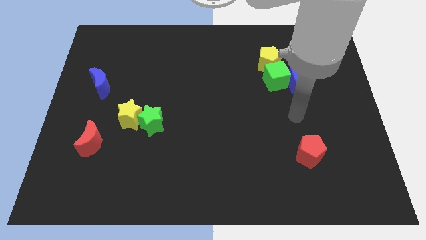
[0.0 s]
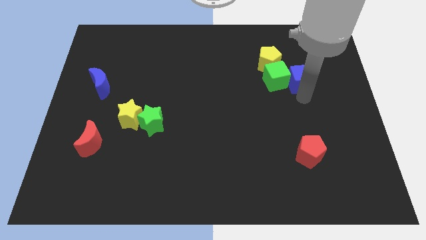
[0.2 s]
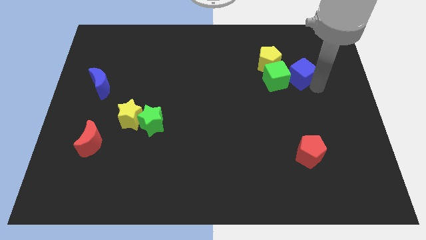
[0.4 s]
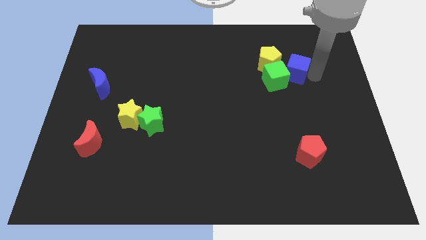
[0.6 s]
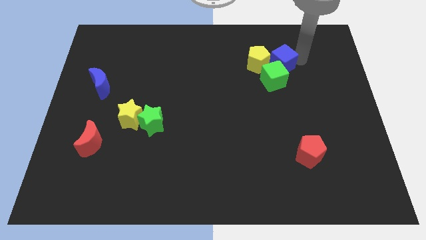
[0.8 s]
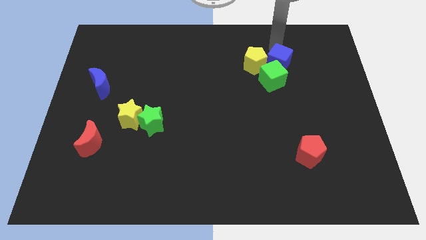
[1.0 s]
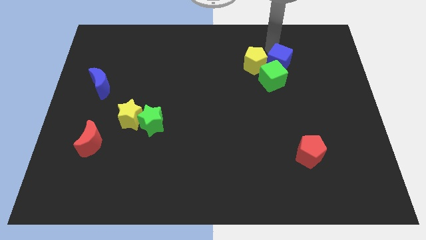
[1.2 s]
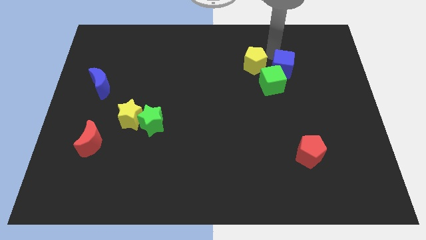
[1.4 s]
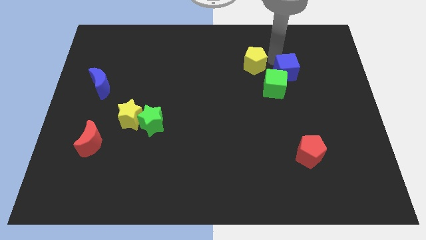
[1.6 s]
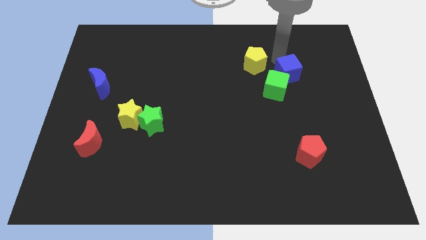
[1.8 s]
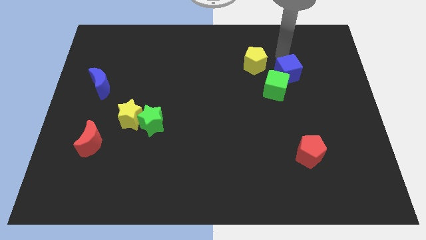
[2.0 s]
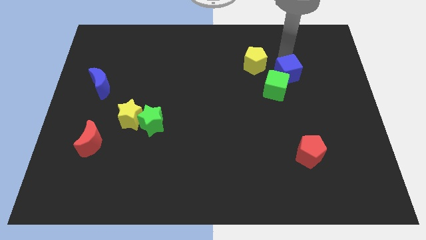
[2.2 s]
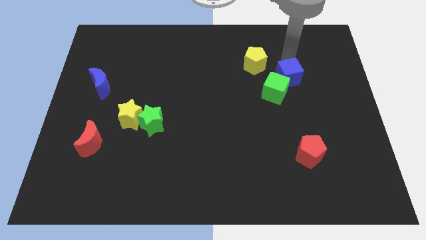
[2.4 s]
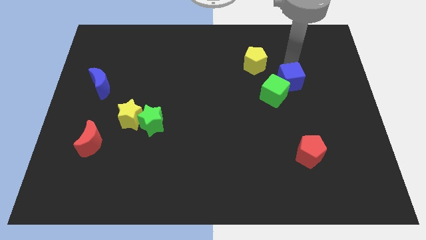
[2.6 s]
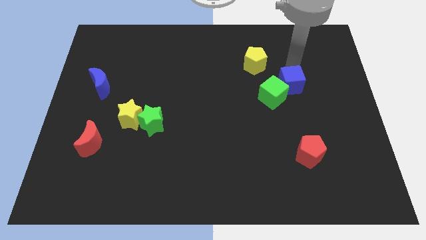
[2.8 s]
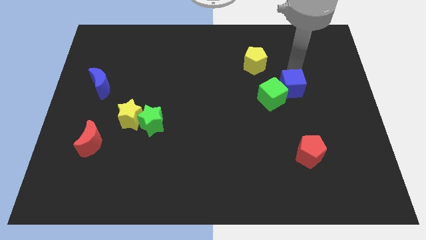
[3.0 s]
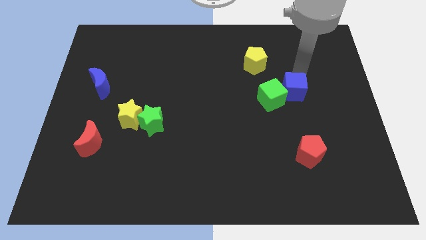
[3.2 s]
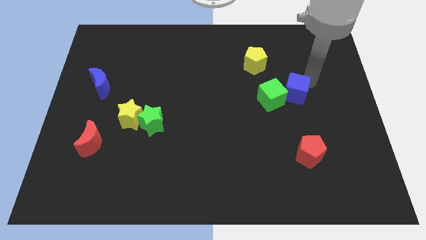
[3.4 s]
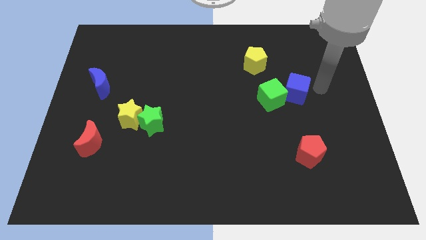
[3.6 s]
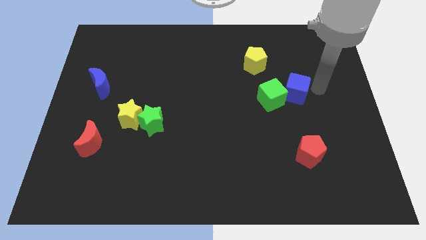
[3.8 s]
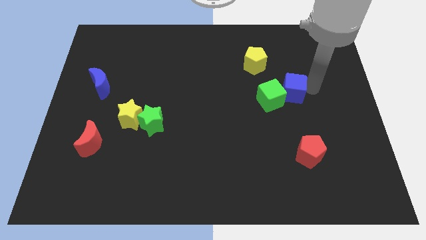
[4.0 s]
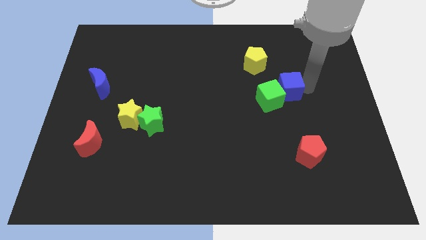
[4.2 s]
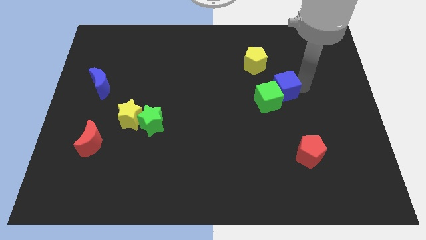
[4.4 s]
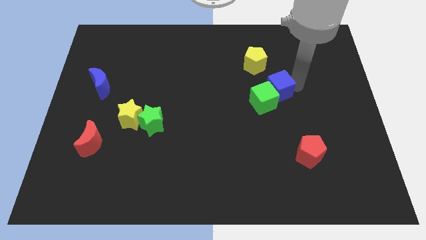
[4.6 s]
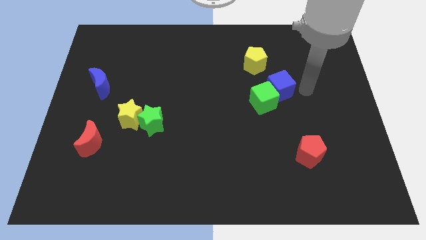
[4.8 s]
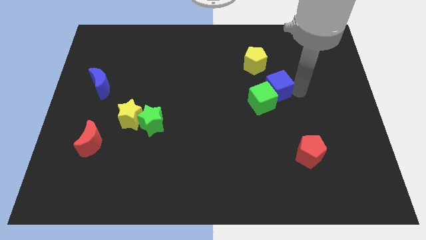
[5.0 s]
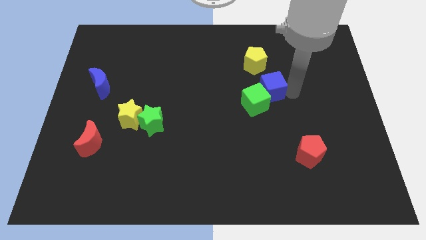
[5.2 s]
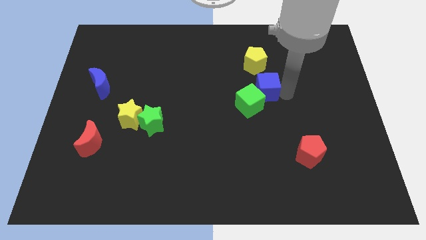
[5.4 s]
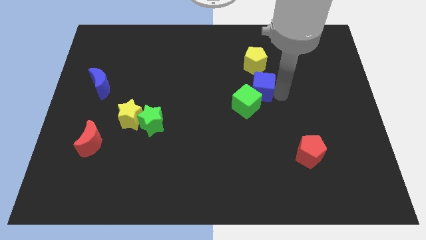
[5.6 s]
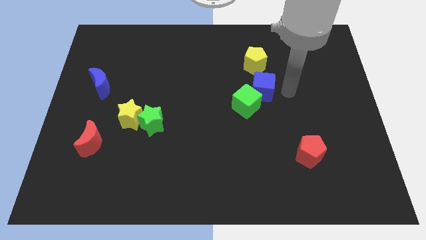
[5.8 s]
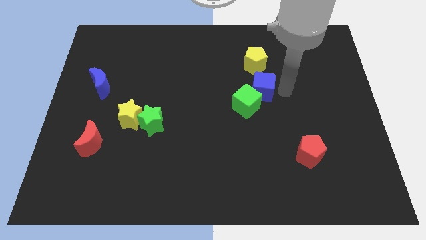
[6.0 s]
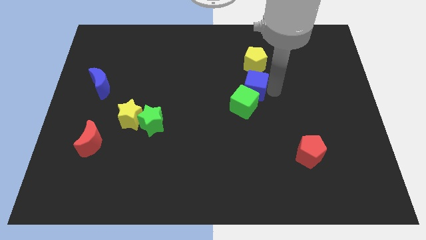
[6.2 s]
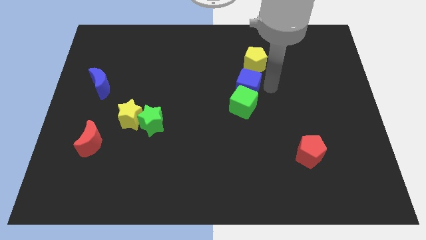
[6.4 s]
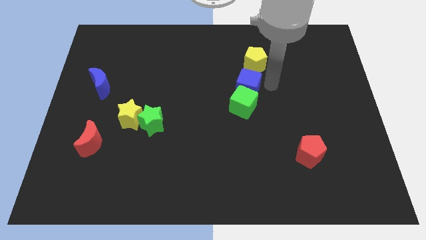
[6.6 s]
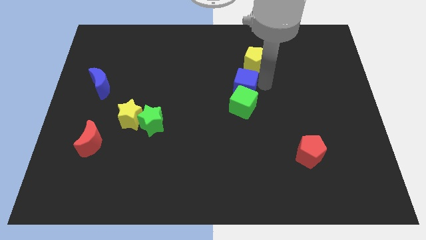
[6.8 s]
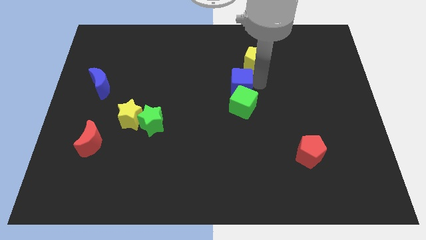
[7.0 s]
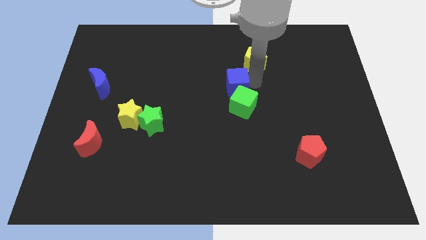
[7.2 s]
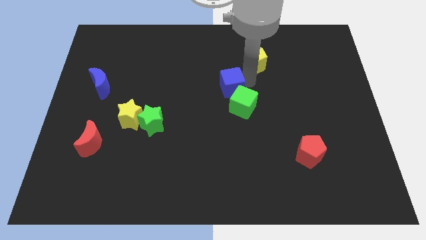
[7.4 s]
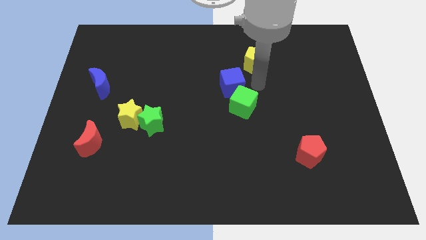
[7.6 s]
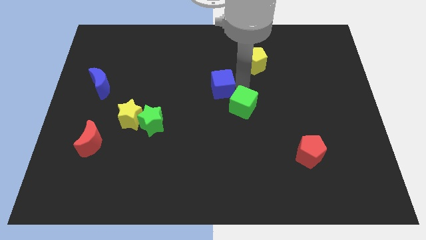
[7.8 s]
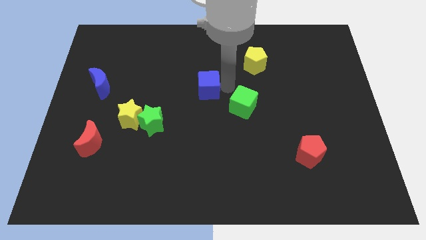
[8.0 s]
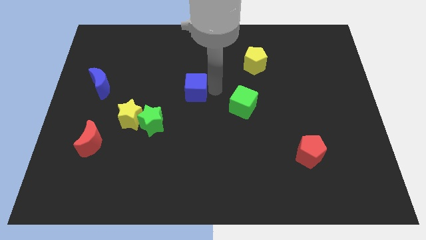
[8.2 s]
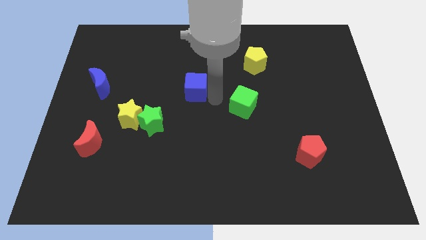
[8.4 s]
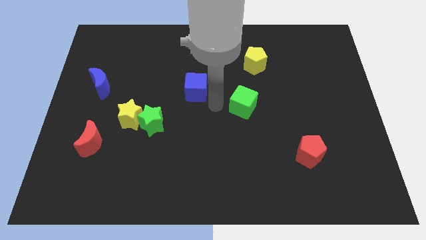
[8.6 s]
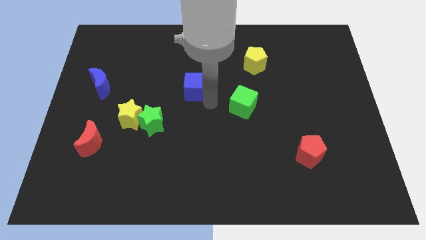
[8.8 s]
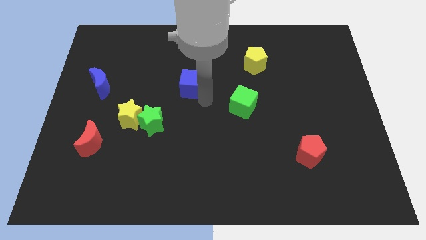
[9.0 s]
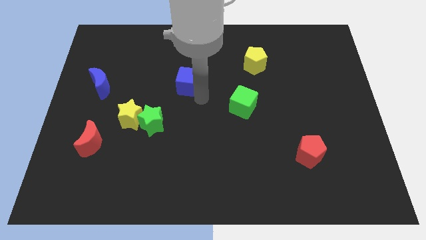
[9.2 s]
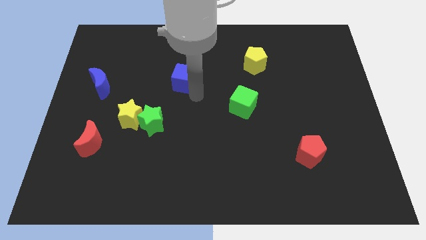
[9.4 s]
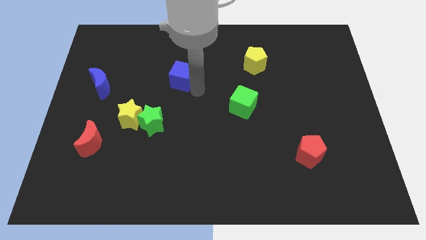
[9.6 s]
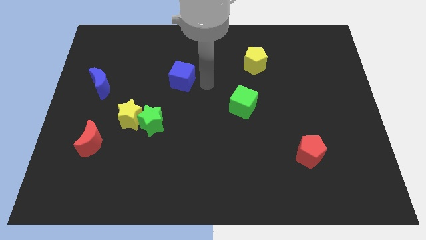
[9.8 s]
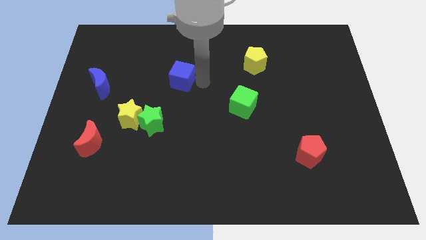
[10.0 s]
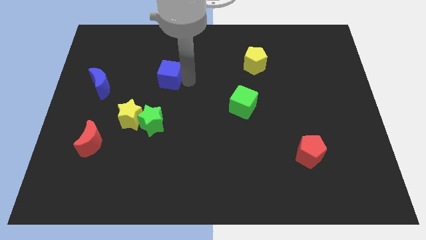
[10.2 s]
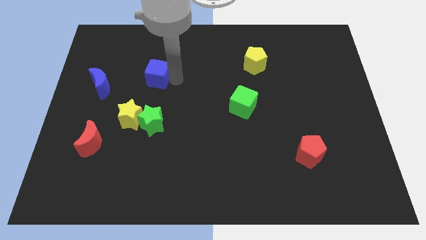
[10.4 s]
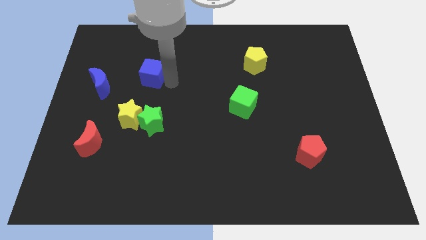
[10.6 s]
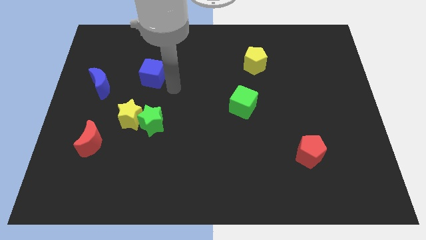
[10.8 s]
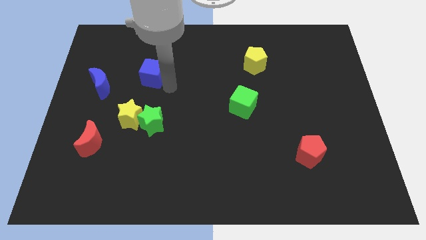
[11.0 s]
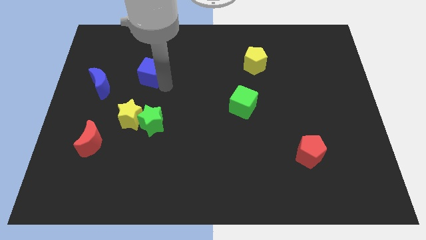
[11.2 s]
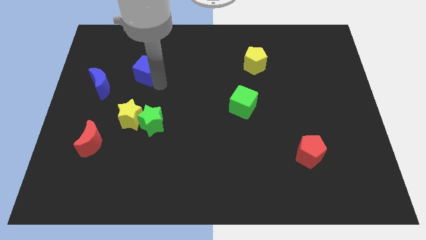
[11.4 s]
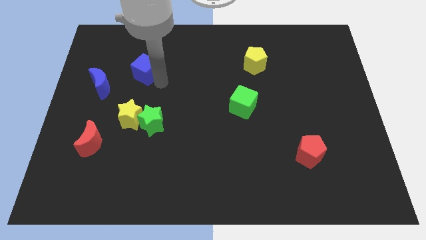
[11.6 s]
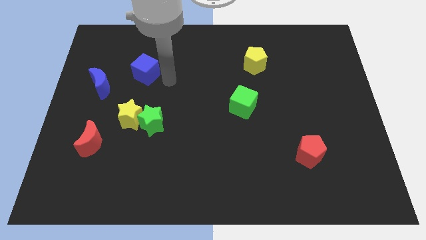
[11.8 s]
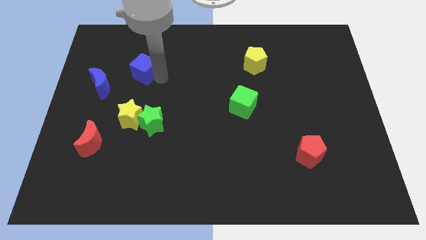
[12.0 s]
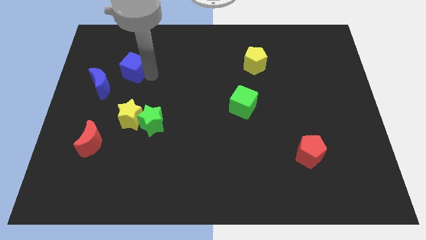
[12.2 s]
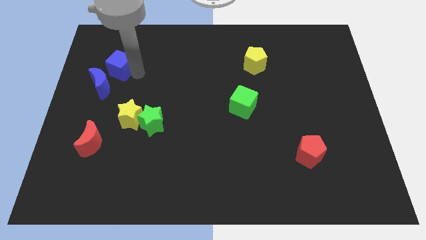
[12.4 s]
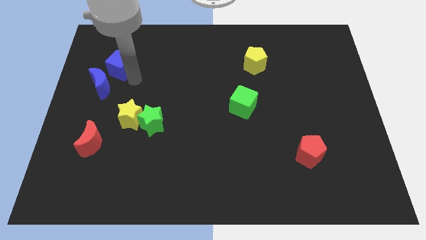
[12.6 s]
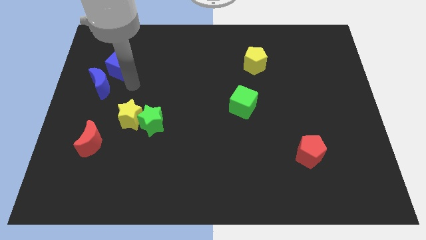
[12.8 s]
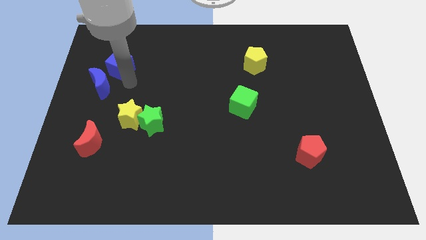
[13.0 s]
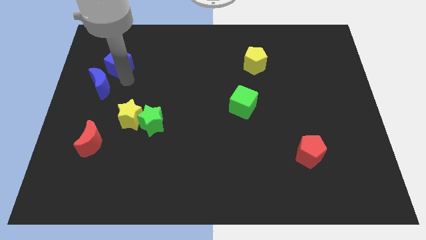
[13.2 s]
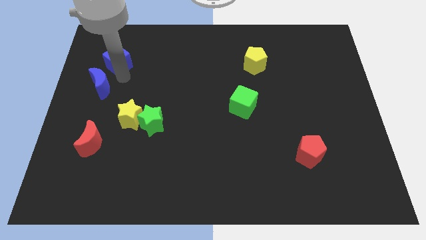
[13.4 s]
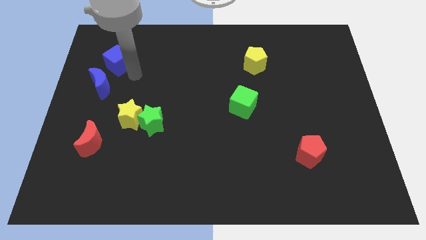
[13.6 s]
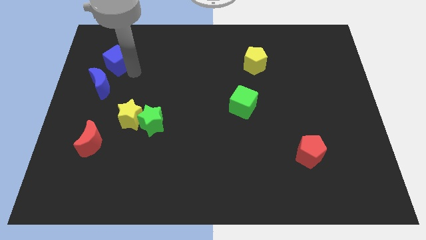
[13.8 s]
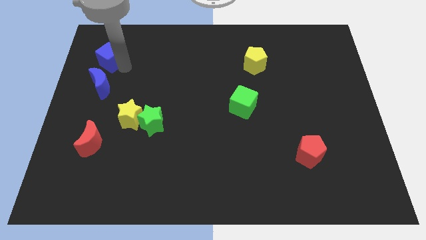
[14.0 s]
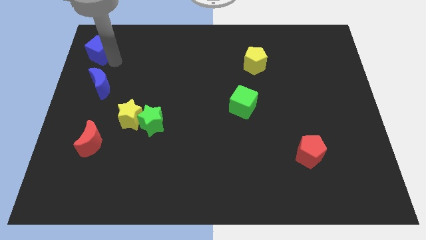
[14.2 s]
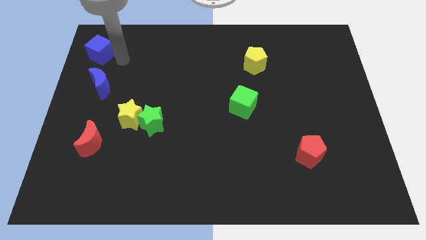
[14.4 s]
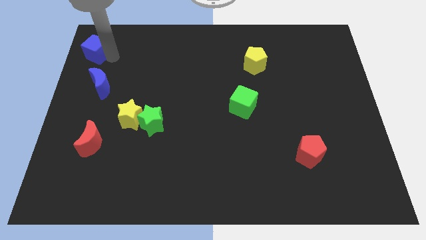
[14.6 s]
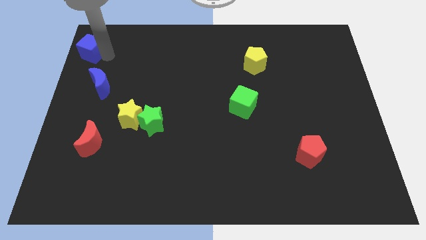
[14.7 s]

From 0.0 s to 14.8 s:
push the blue cube to the top left
